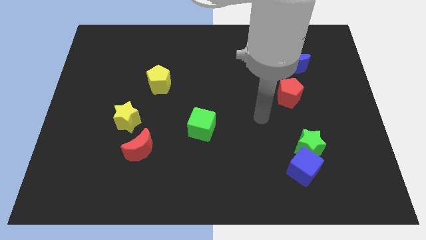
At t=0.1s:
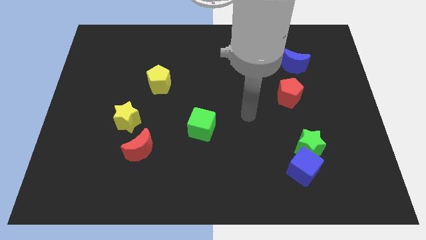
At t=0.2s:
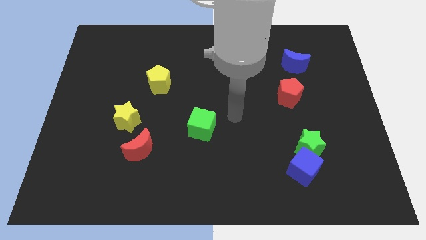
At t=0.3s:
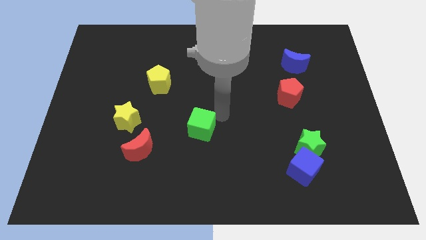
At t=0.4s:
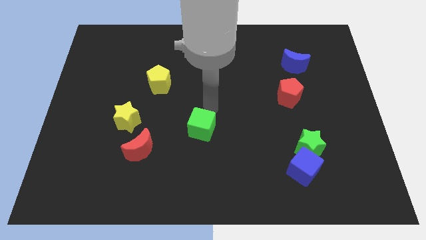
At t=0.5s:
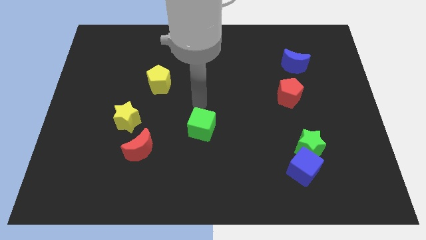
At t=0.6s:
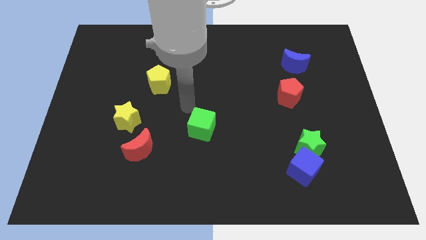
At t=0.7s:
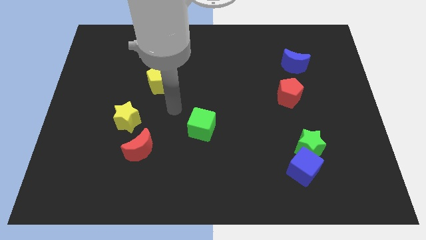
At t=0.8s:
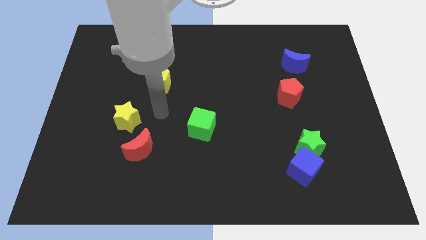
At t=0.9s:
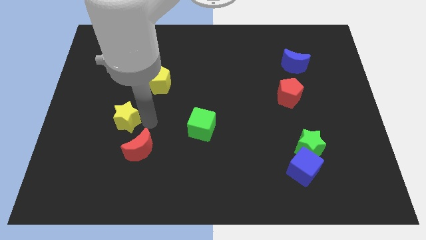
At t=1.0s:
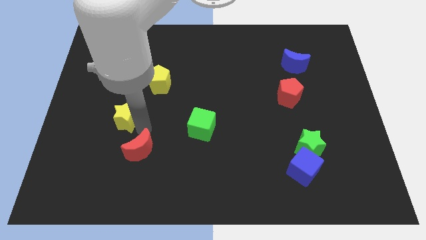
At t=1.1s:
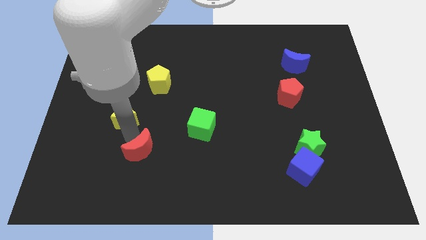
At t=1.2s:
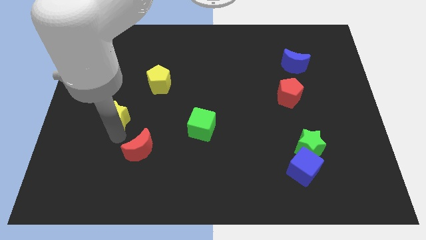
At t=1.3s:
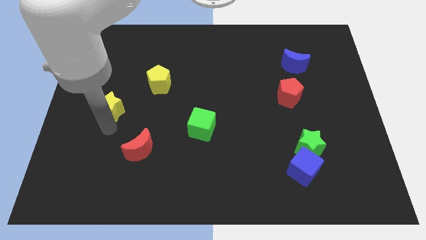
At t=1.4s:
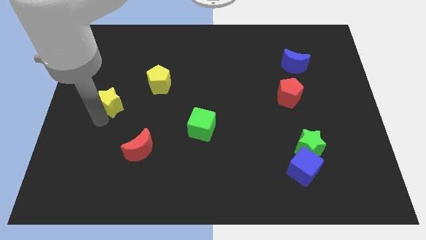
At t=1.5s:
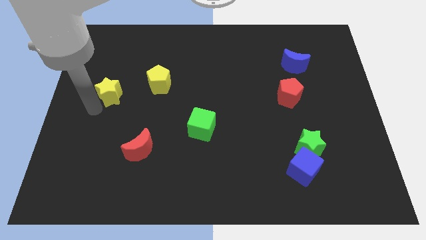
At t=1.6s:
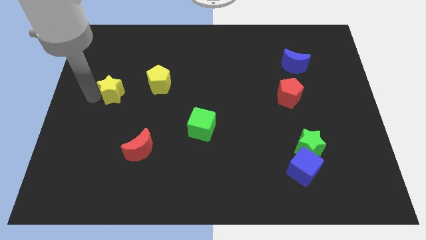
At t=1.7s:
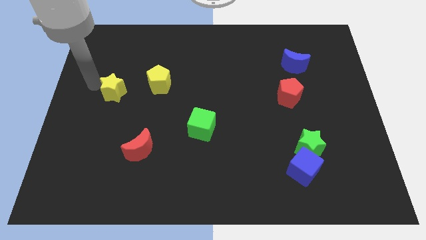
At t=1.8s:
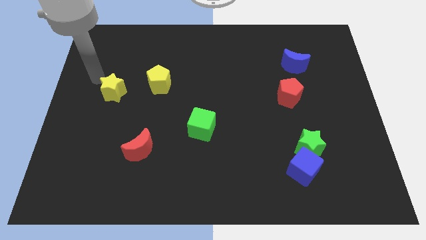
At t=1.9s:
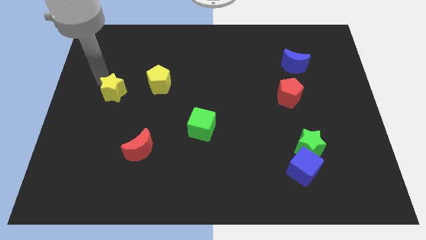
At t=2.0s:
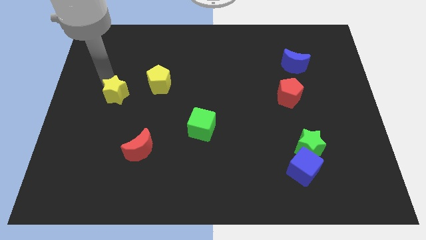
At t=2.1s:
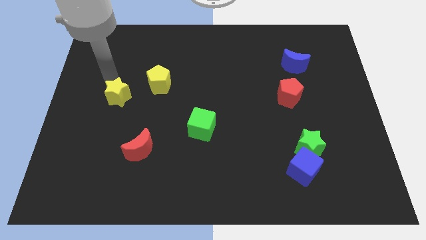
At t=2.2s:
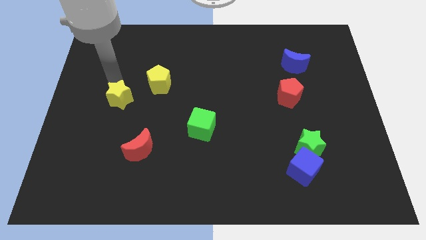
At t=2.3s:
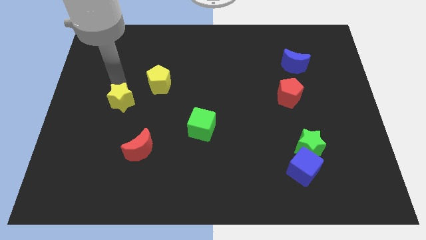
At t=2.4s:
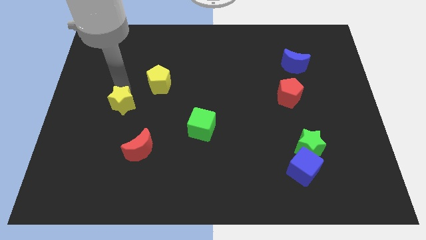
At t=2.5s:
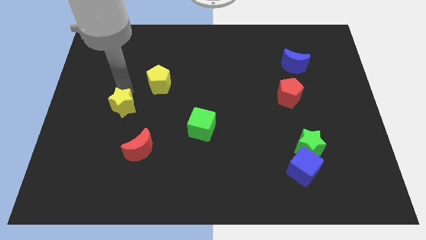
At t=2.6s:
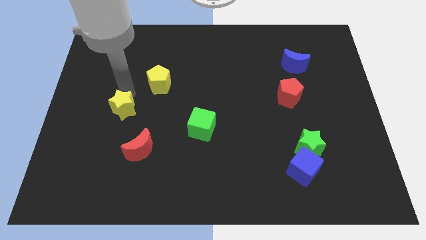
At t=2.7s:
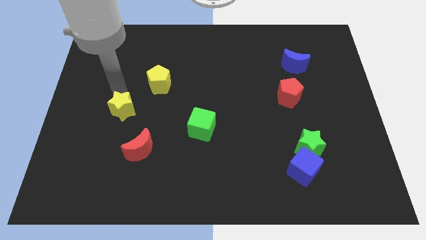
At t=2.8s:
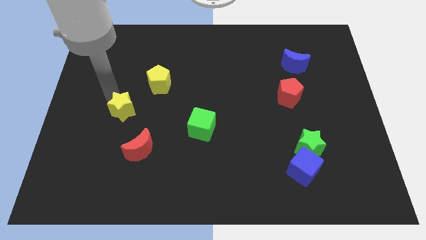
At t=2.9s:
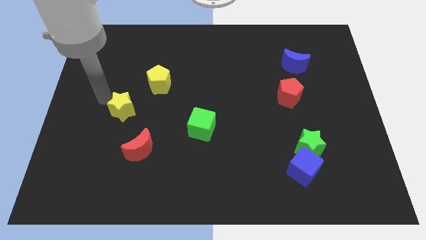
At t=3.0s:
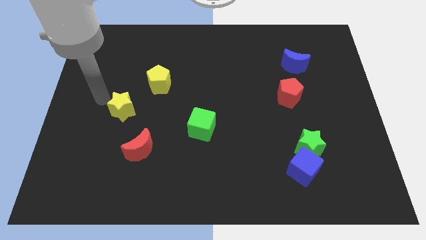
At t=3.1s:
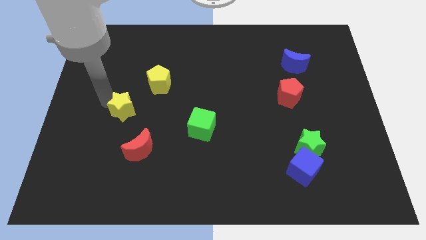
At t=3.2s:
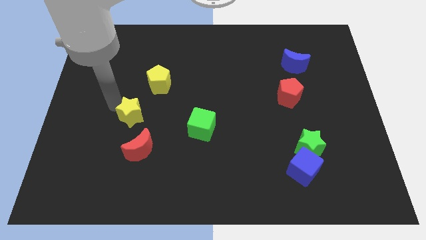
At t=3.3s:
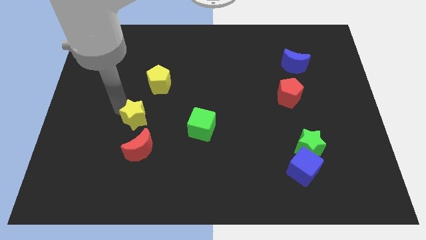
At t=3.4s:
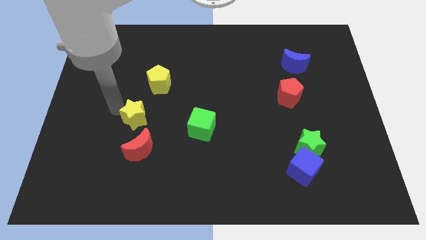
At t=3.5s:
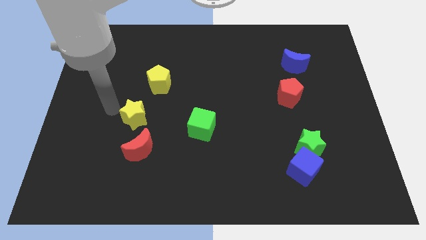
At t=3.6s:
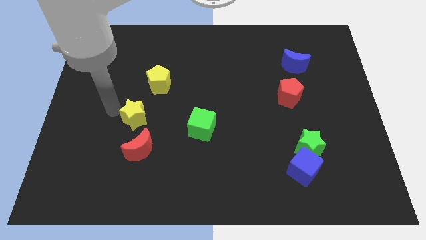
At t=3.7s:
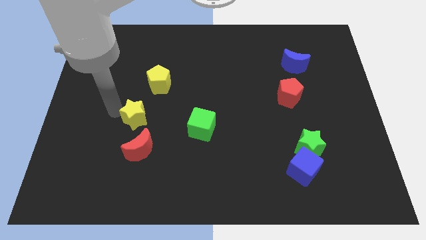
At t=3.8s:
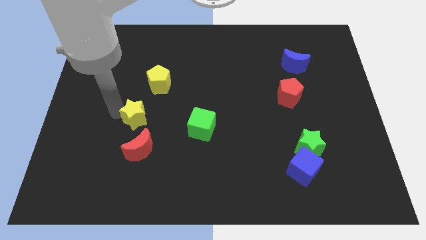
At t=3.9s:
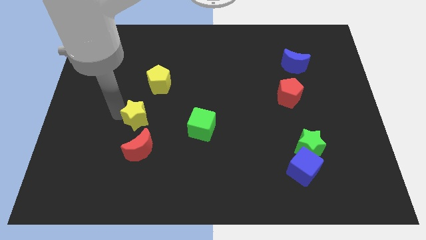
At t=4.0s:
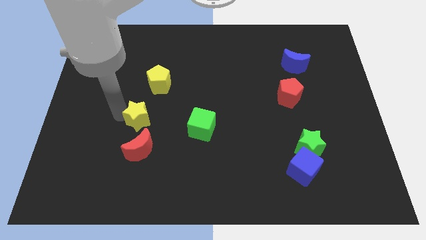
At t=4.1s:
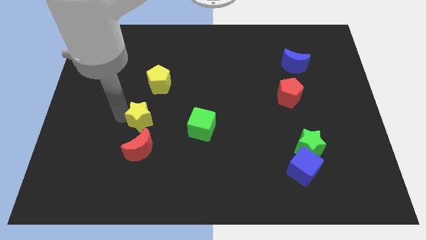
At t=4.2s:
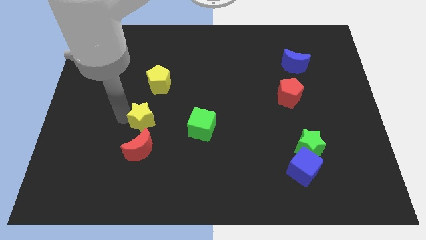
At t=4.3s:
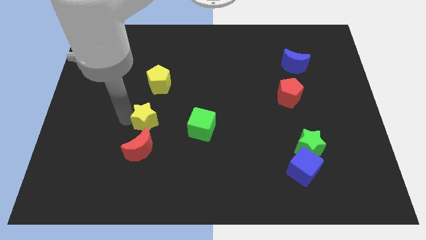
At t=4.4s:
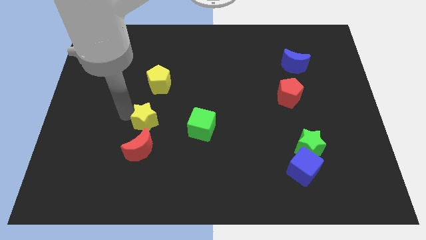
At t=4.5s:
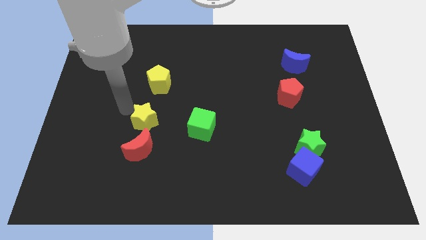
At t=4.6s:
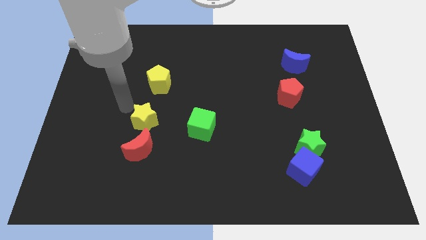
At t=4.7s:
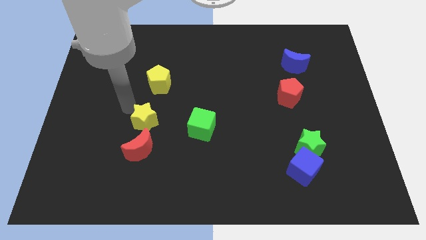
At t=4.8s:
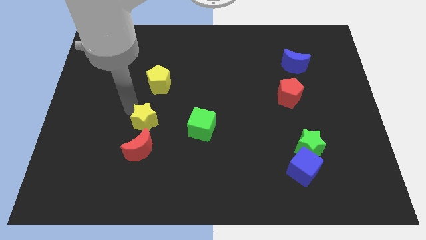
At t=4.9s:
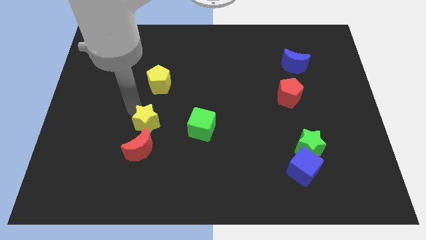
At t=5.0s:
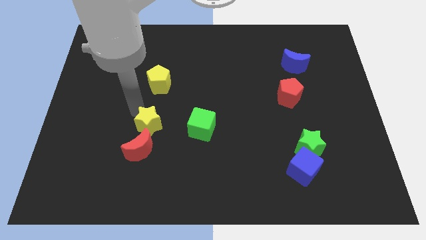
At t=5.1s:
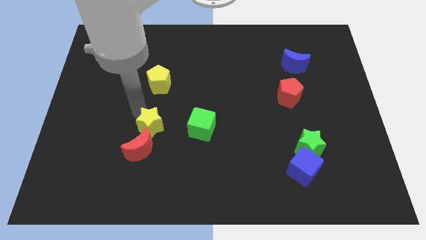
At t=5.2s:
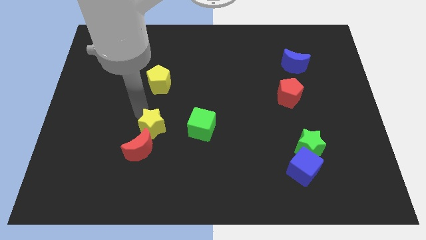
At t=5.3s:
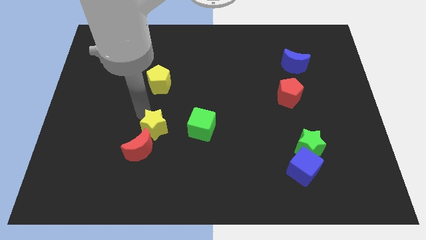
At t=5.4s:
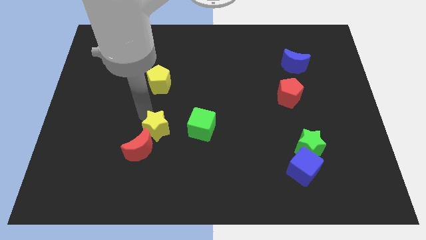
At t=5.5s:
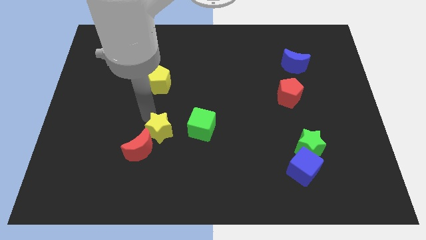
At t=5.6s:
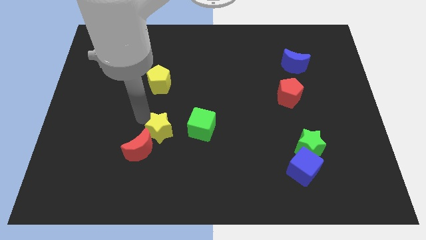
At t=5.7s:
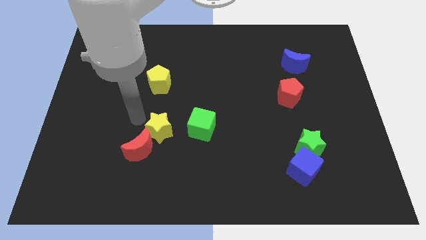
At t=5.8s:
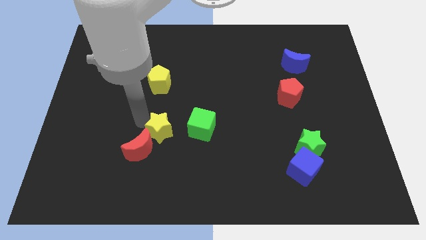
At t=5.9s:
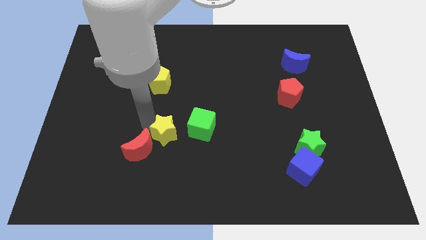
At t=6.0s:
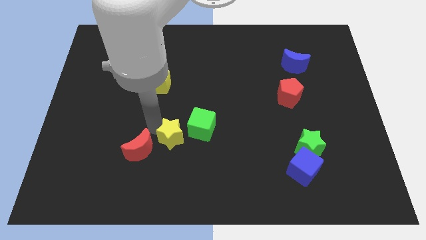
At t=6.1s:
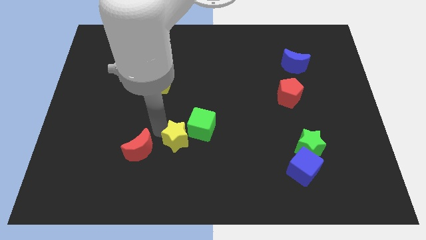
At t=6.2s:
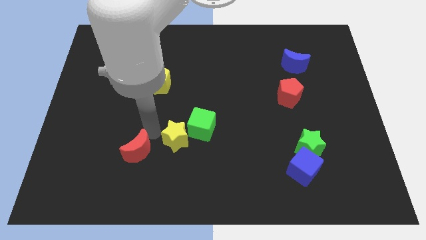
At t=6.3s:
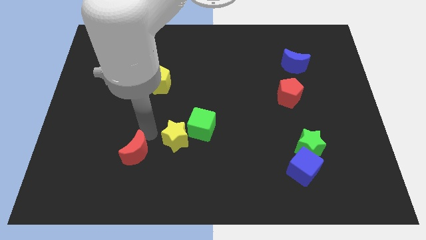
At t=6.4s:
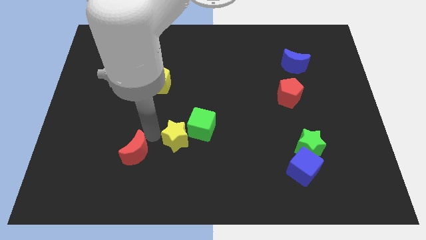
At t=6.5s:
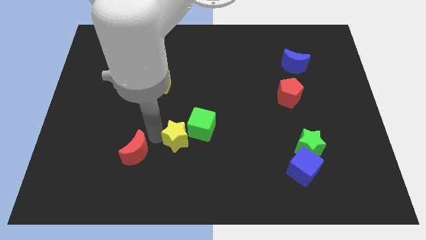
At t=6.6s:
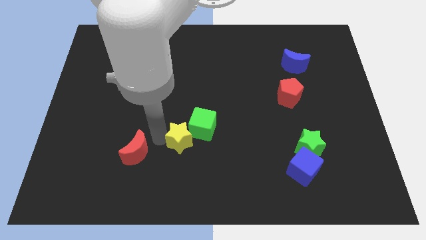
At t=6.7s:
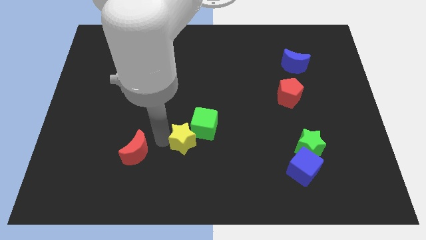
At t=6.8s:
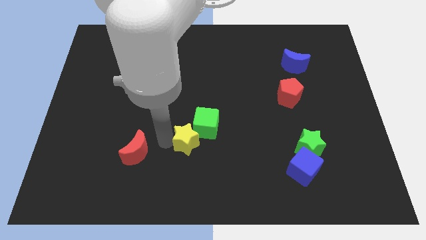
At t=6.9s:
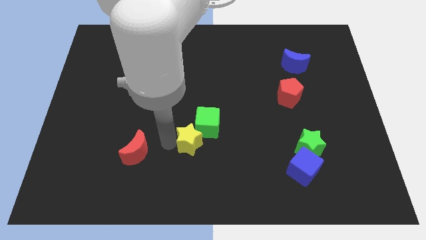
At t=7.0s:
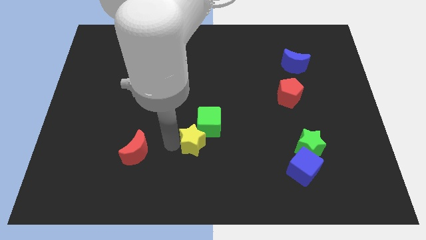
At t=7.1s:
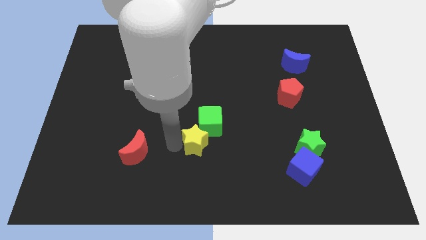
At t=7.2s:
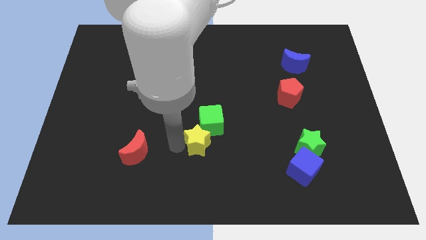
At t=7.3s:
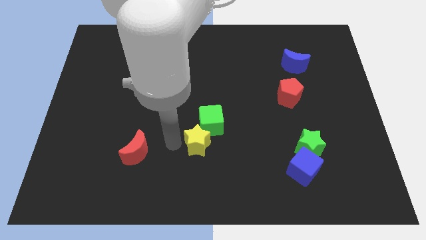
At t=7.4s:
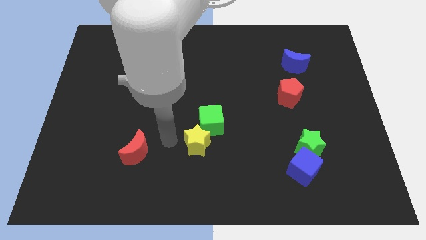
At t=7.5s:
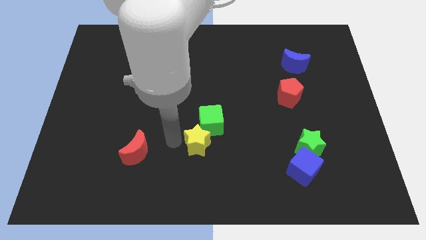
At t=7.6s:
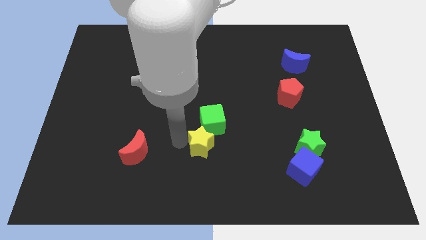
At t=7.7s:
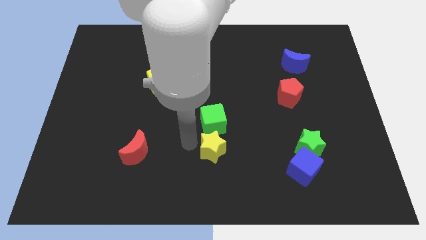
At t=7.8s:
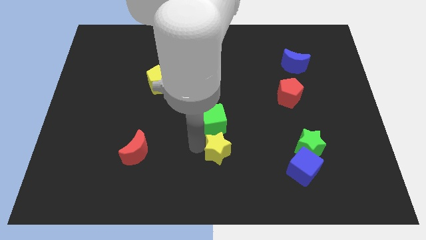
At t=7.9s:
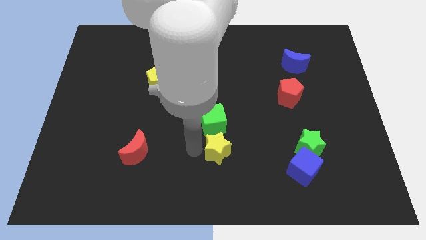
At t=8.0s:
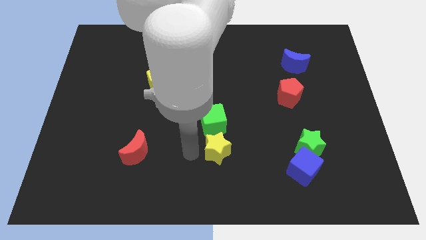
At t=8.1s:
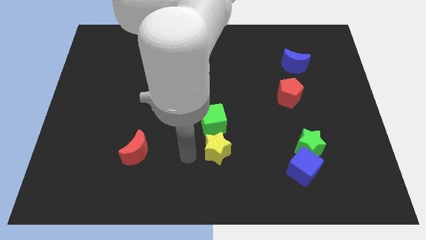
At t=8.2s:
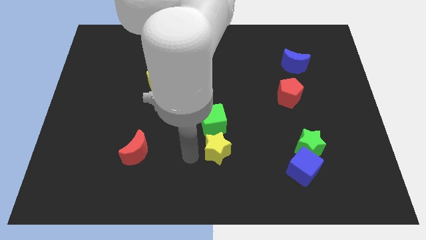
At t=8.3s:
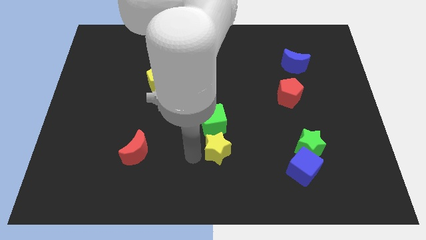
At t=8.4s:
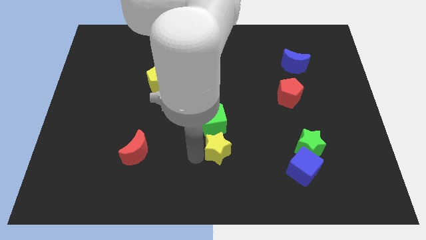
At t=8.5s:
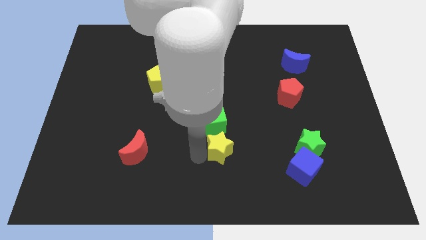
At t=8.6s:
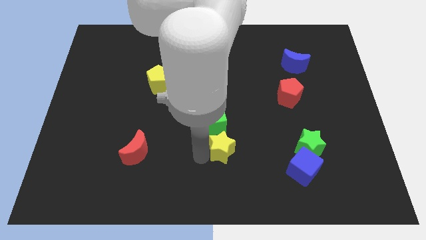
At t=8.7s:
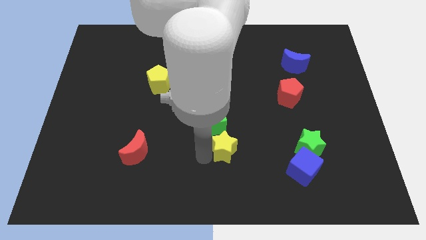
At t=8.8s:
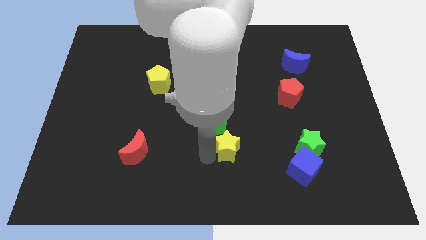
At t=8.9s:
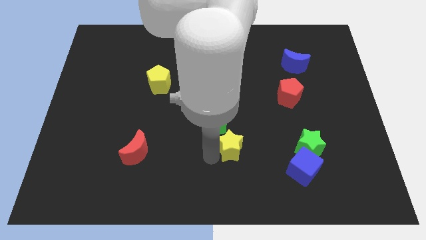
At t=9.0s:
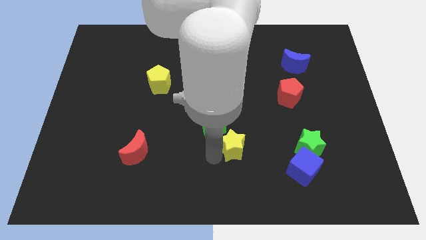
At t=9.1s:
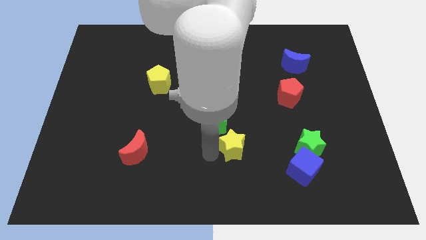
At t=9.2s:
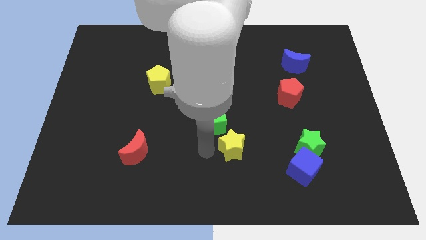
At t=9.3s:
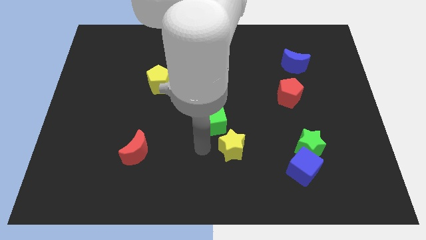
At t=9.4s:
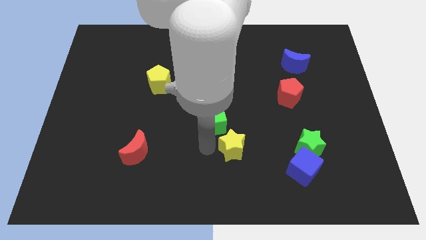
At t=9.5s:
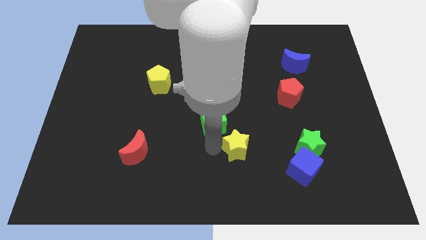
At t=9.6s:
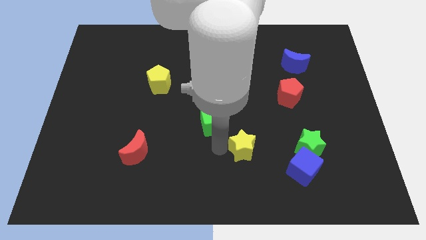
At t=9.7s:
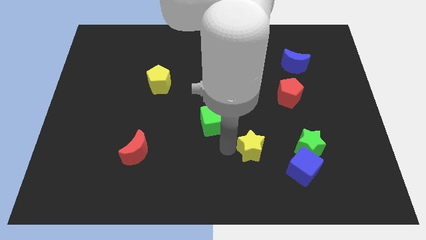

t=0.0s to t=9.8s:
push the yellow star to the top left side of the blue cube
